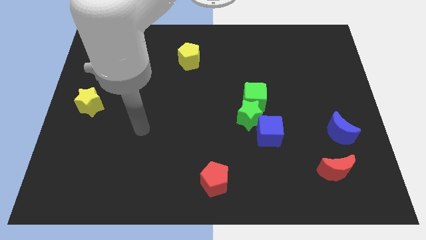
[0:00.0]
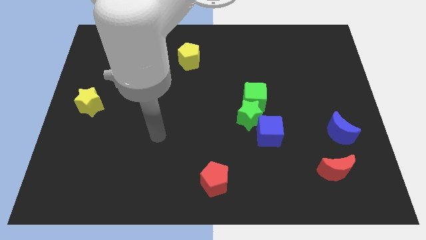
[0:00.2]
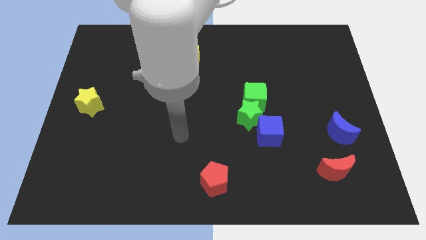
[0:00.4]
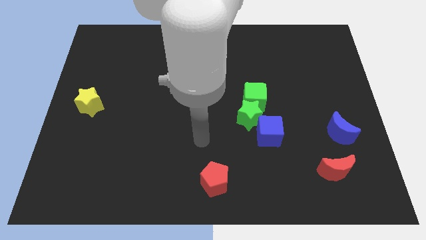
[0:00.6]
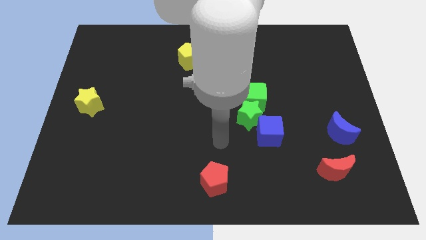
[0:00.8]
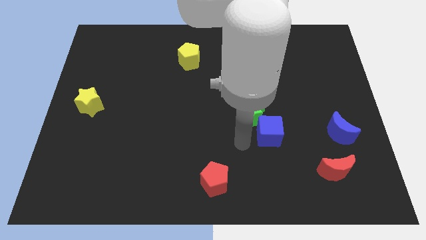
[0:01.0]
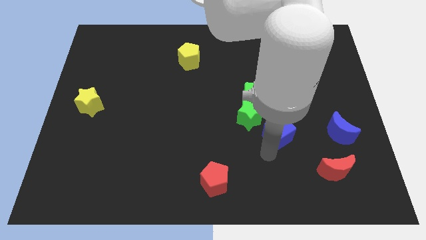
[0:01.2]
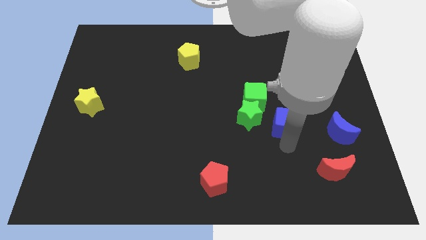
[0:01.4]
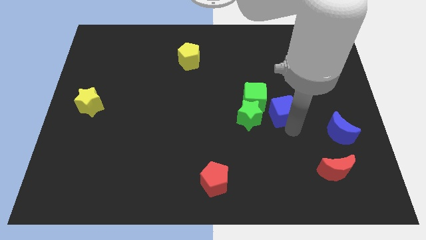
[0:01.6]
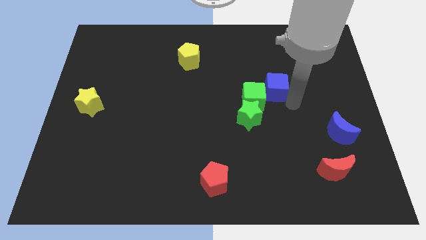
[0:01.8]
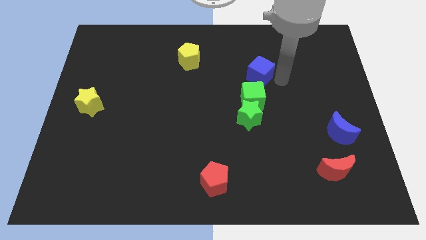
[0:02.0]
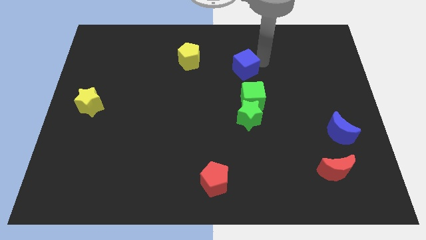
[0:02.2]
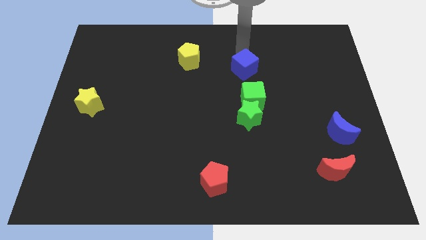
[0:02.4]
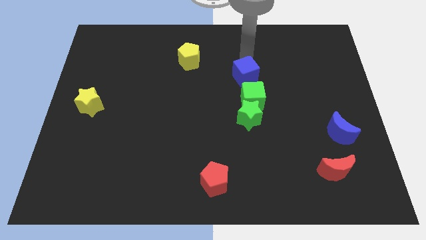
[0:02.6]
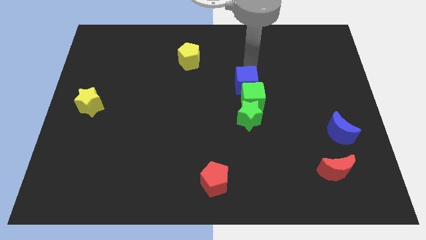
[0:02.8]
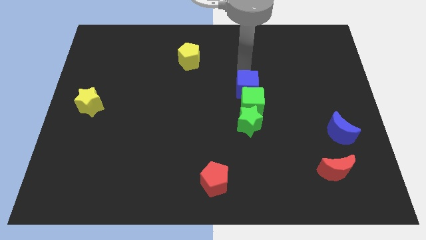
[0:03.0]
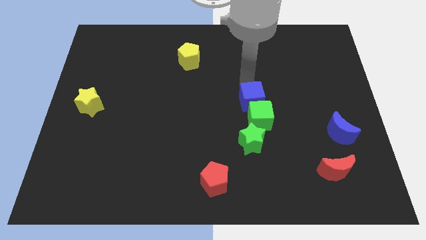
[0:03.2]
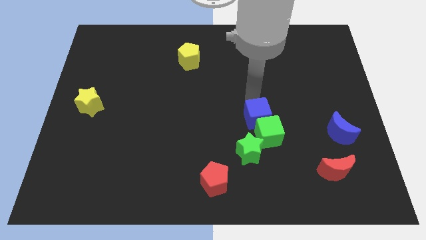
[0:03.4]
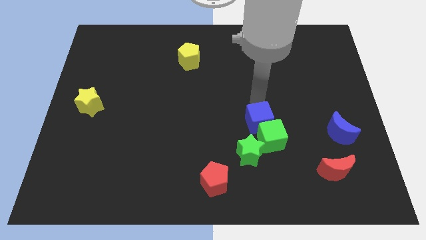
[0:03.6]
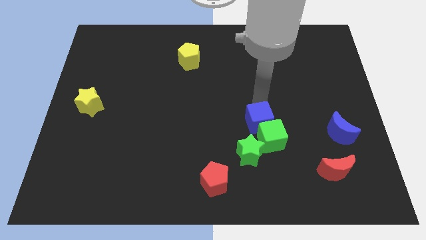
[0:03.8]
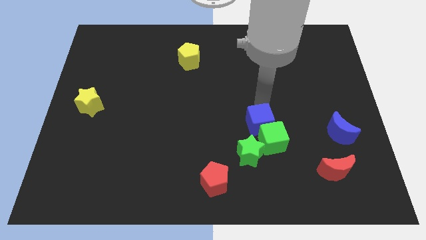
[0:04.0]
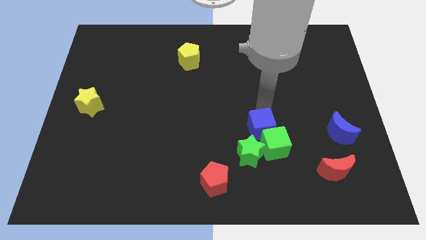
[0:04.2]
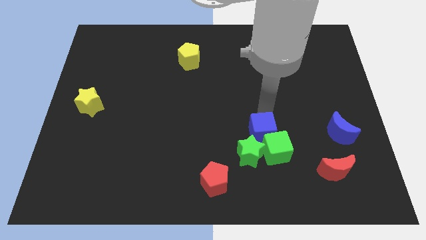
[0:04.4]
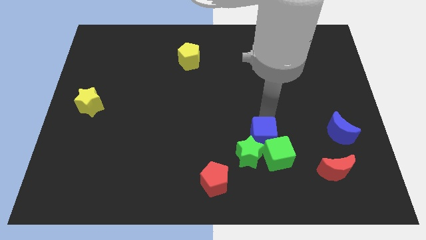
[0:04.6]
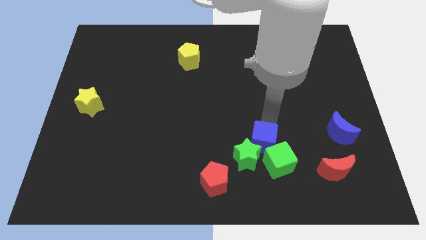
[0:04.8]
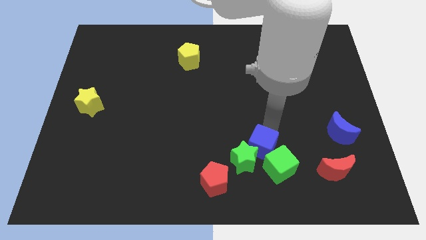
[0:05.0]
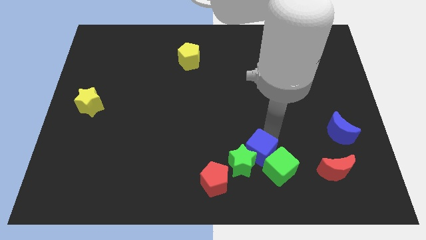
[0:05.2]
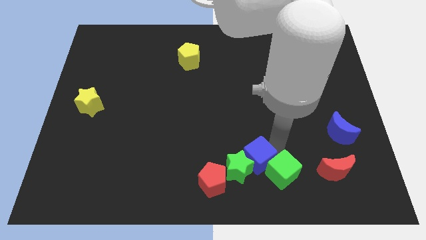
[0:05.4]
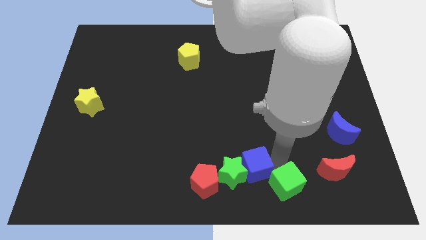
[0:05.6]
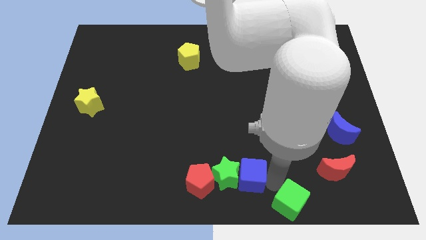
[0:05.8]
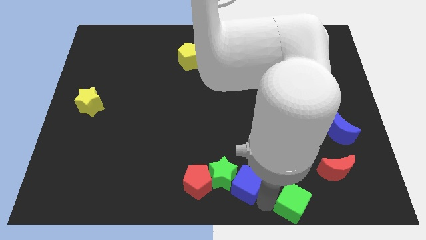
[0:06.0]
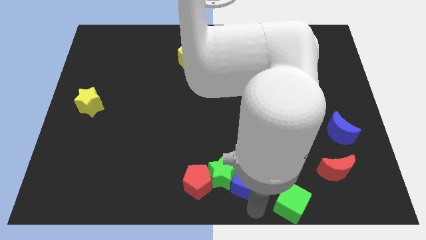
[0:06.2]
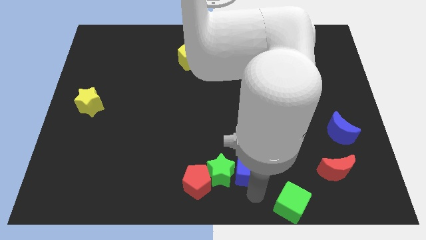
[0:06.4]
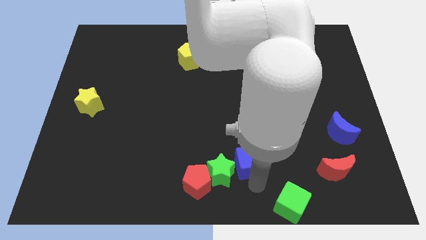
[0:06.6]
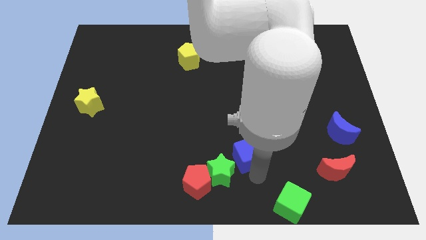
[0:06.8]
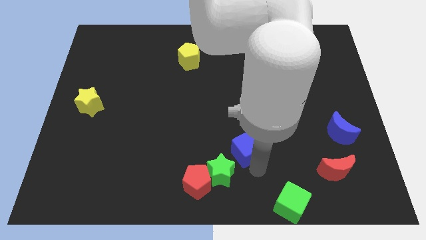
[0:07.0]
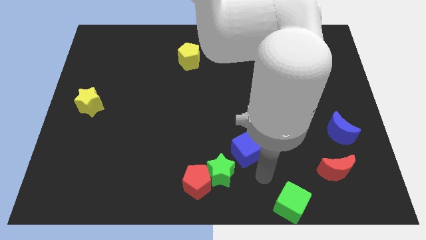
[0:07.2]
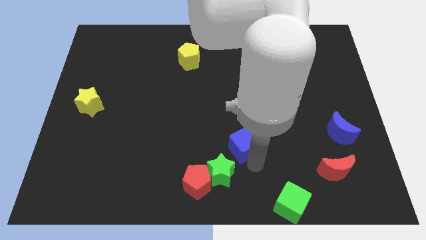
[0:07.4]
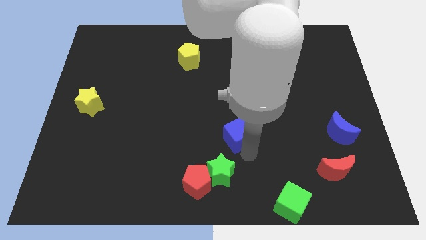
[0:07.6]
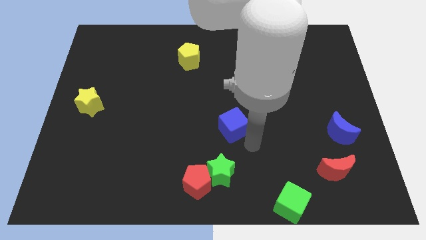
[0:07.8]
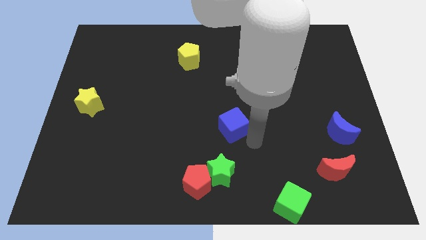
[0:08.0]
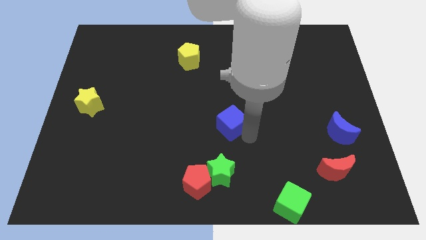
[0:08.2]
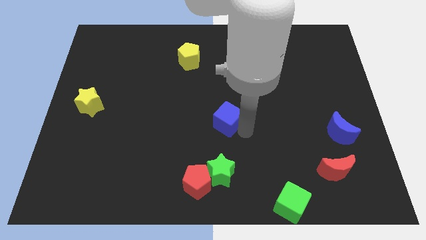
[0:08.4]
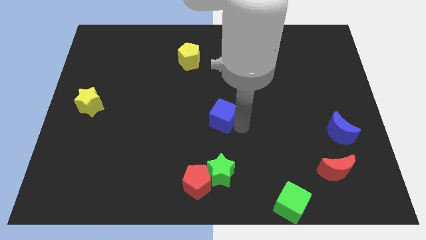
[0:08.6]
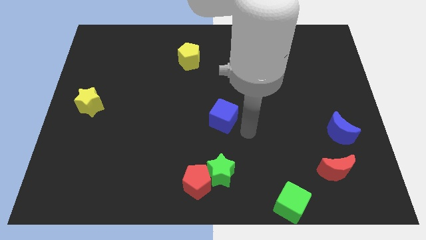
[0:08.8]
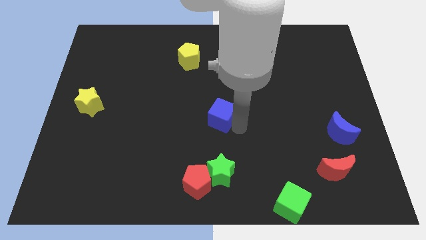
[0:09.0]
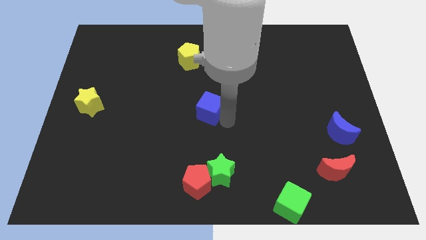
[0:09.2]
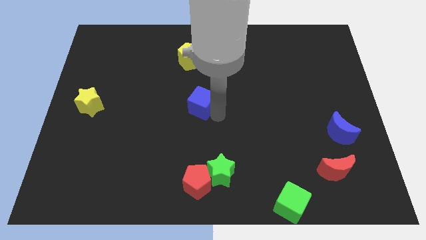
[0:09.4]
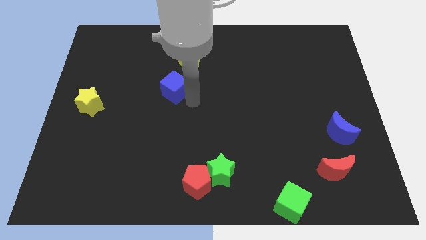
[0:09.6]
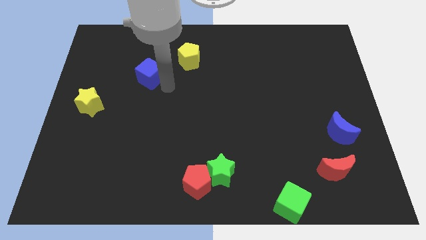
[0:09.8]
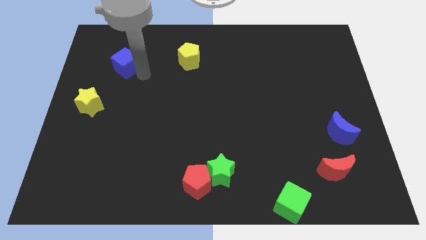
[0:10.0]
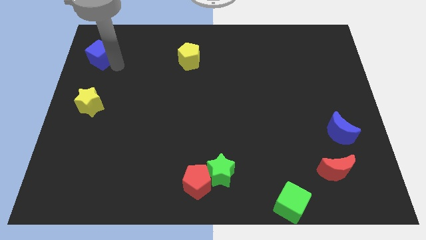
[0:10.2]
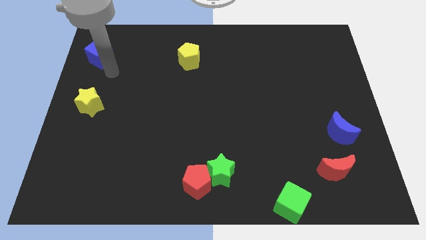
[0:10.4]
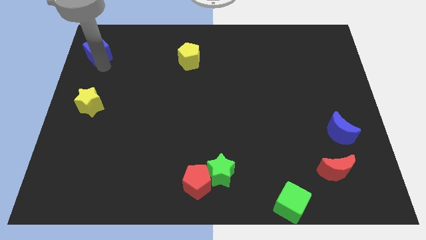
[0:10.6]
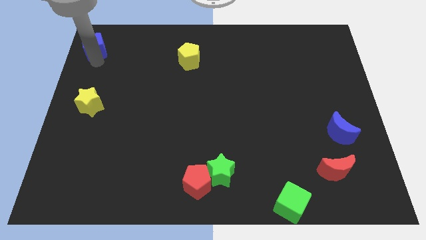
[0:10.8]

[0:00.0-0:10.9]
push the blue cube to the top left of the board

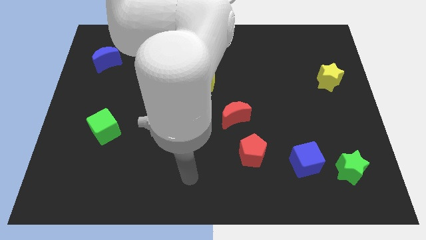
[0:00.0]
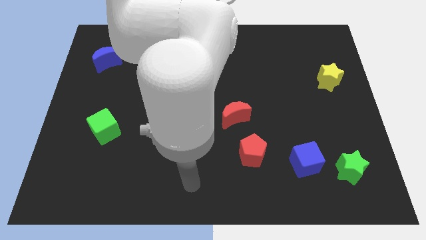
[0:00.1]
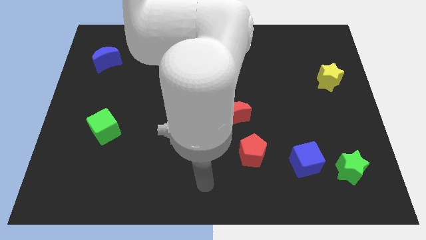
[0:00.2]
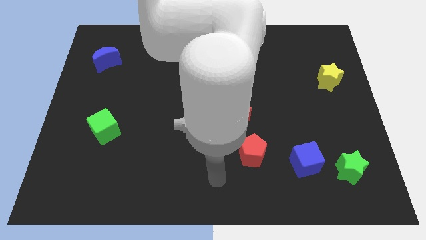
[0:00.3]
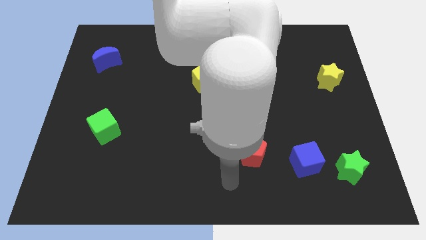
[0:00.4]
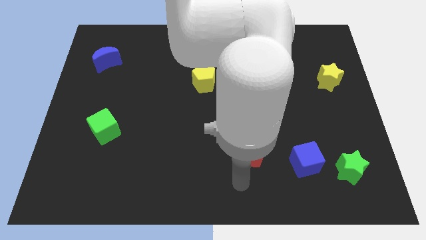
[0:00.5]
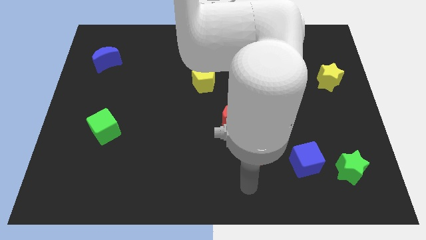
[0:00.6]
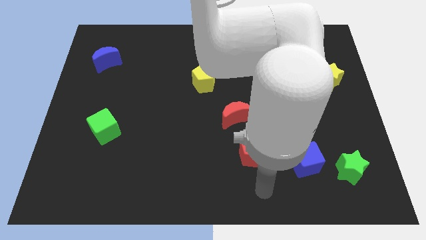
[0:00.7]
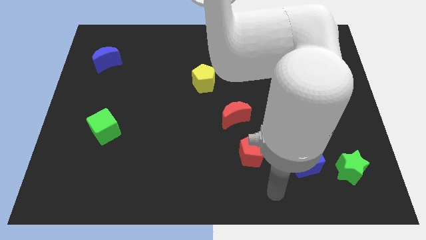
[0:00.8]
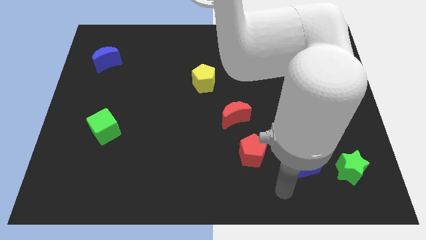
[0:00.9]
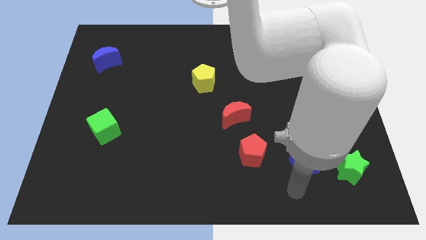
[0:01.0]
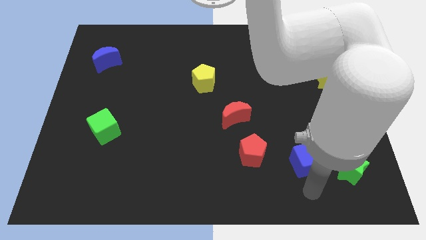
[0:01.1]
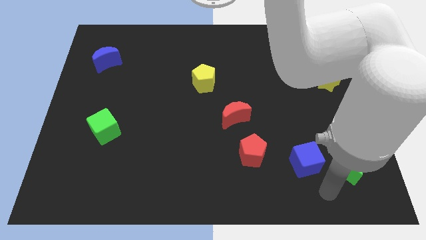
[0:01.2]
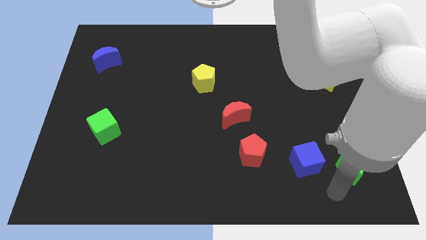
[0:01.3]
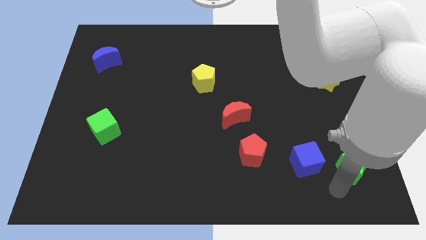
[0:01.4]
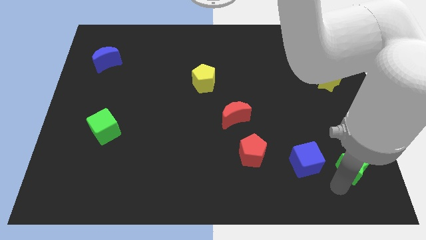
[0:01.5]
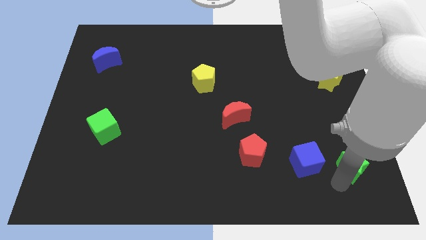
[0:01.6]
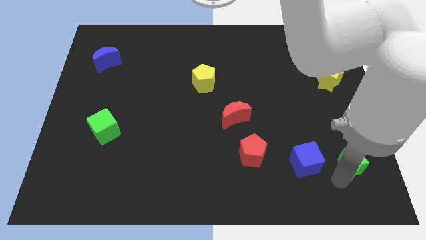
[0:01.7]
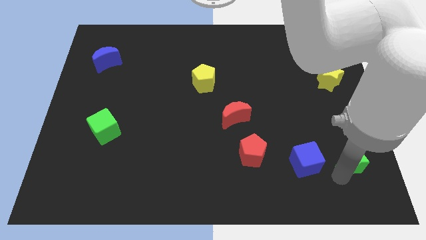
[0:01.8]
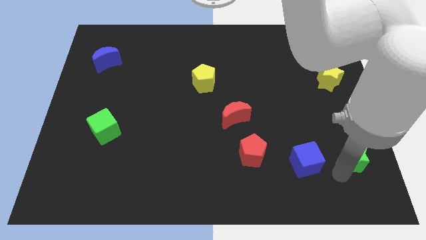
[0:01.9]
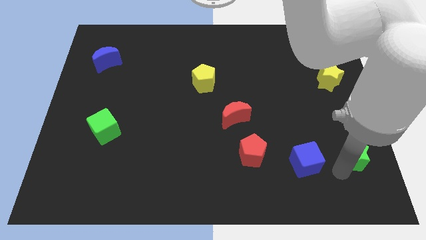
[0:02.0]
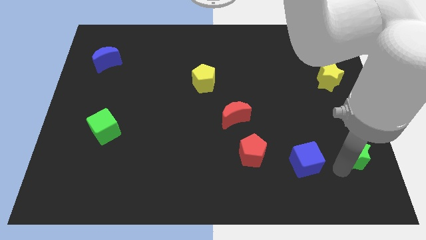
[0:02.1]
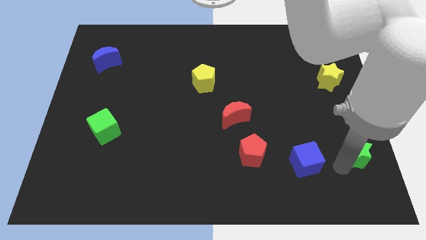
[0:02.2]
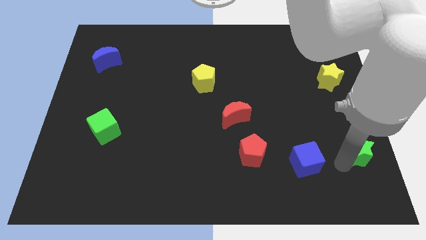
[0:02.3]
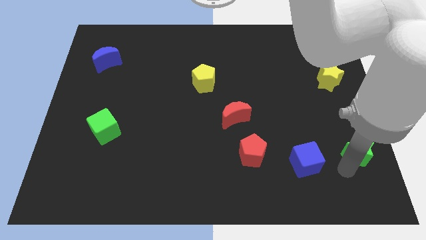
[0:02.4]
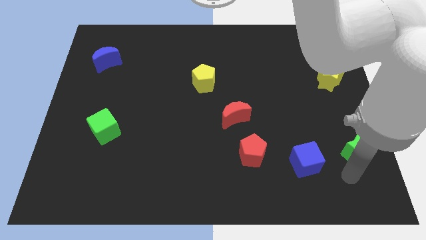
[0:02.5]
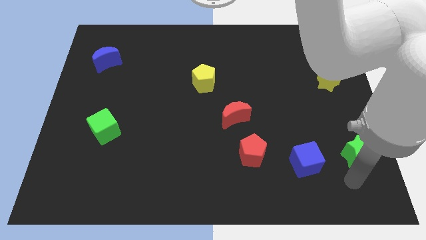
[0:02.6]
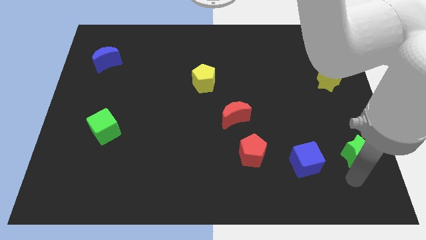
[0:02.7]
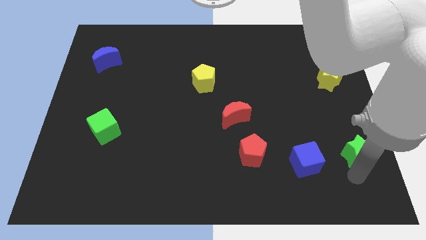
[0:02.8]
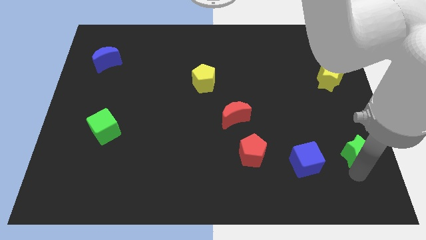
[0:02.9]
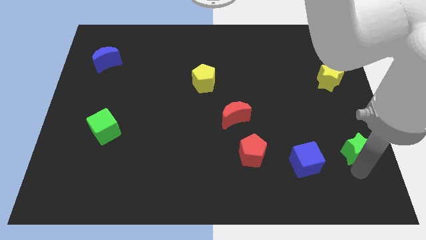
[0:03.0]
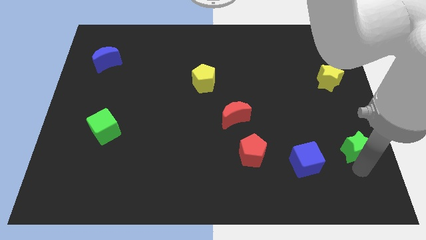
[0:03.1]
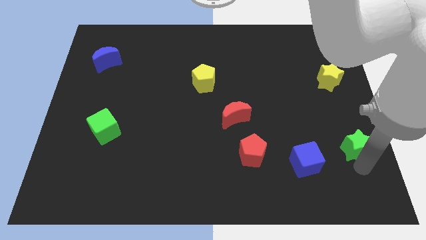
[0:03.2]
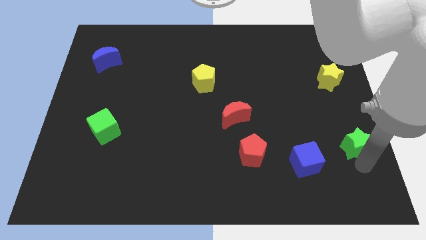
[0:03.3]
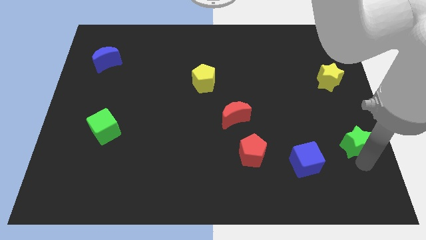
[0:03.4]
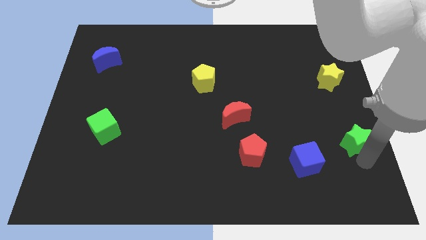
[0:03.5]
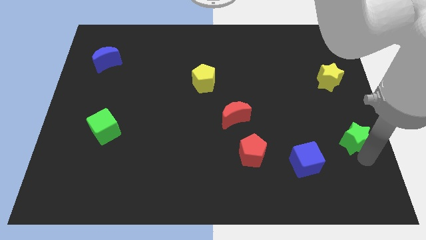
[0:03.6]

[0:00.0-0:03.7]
move the green star to the center right
